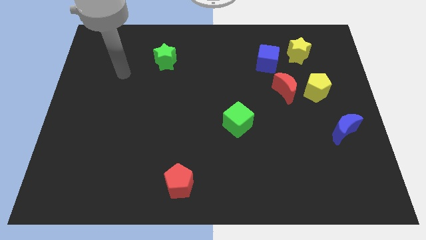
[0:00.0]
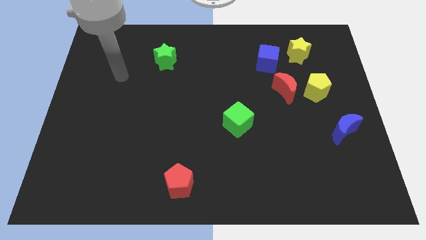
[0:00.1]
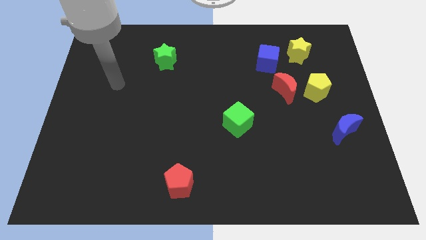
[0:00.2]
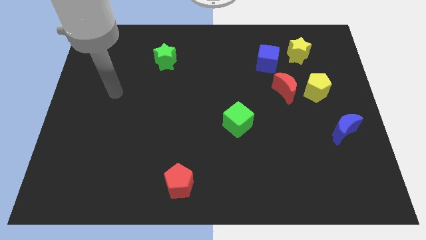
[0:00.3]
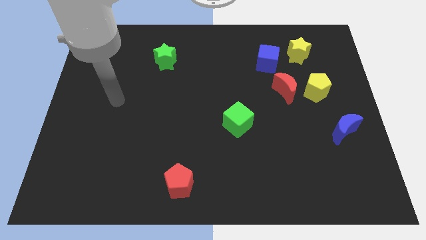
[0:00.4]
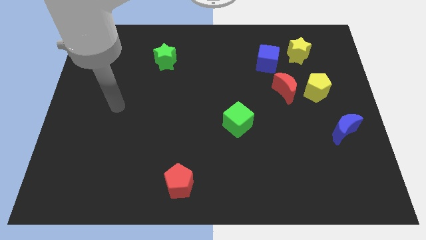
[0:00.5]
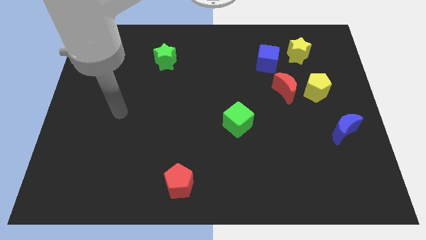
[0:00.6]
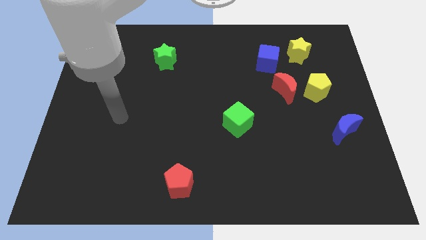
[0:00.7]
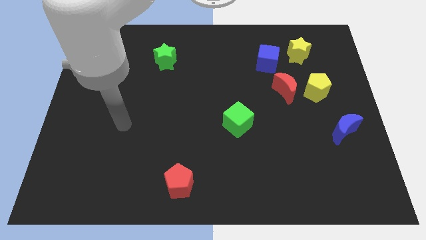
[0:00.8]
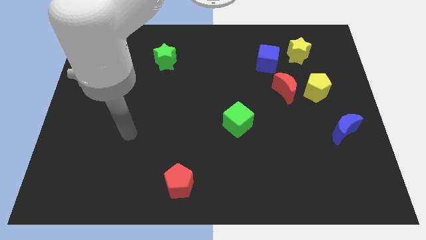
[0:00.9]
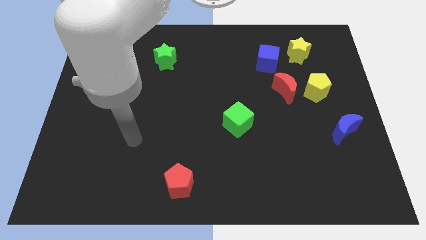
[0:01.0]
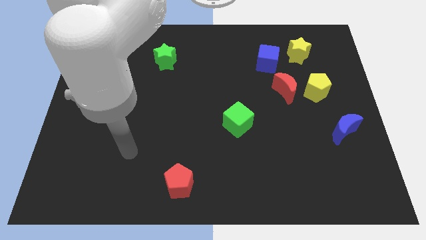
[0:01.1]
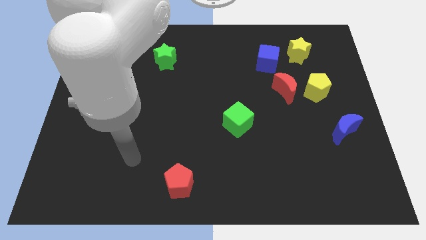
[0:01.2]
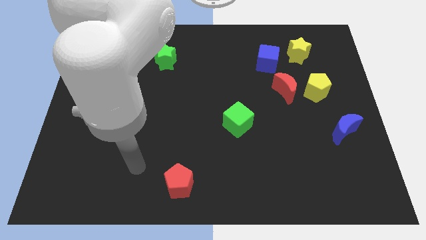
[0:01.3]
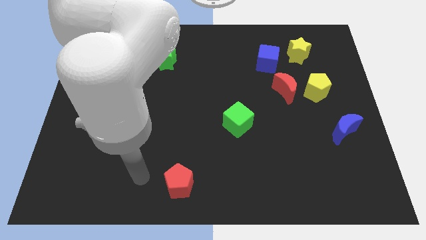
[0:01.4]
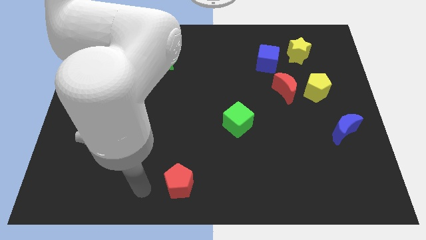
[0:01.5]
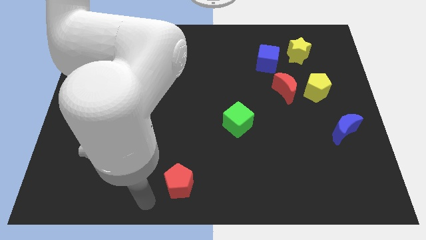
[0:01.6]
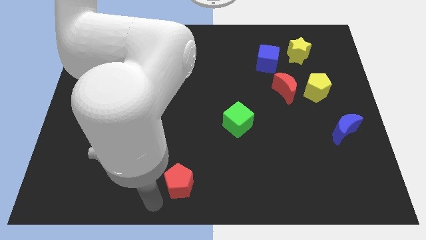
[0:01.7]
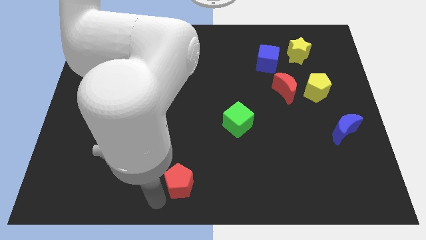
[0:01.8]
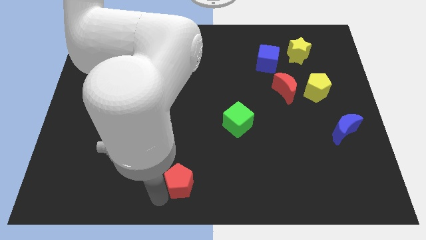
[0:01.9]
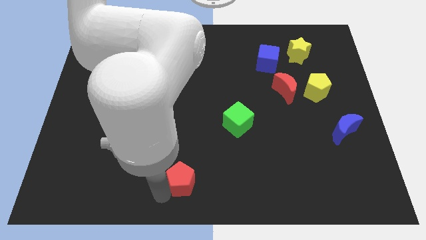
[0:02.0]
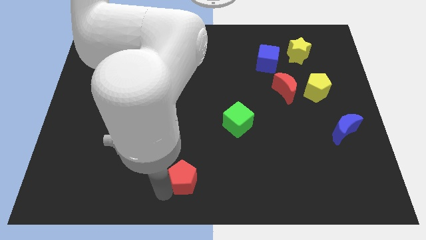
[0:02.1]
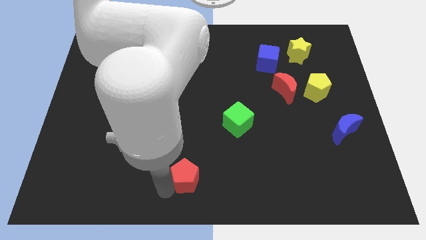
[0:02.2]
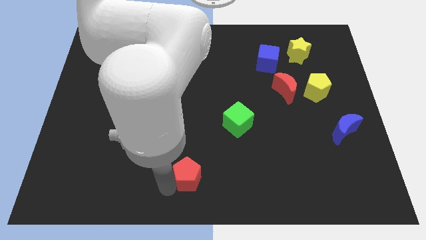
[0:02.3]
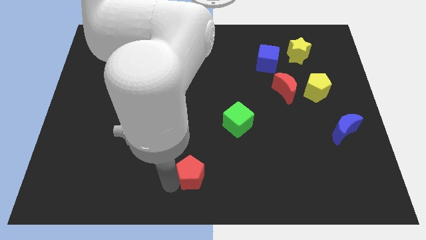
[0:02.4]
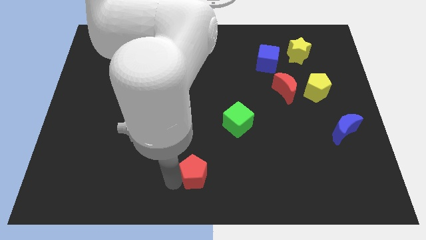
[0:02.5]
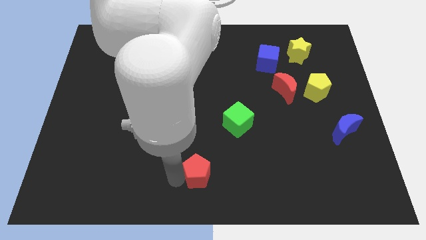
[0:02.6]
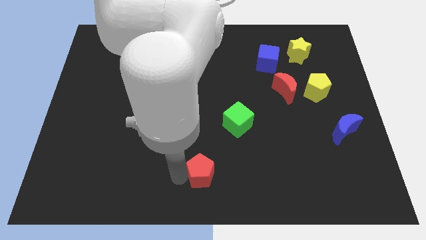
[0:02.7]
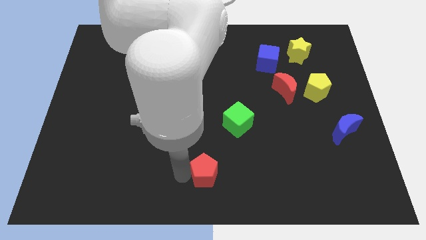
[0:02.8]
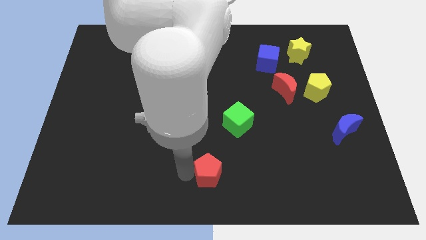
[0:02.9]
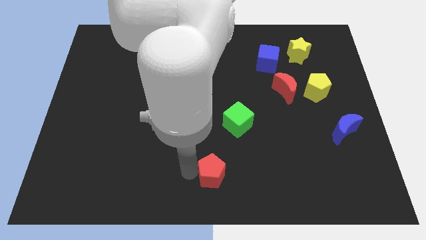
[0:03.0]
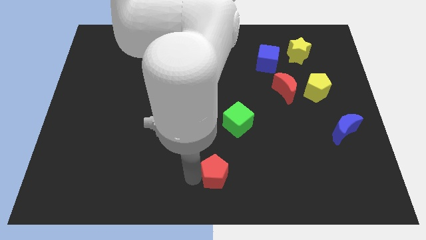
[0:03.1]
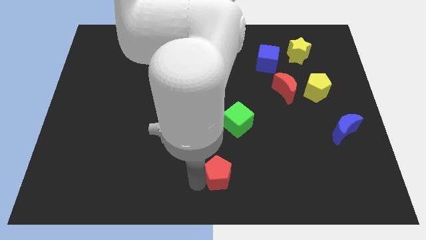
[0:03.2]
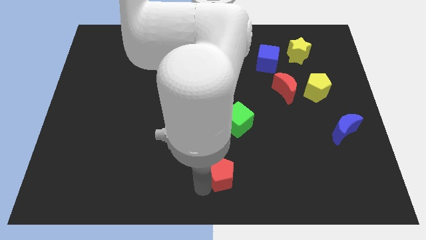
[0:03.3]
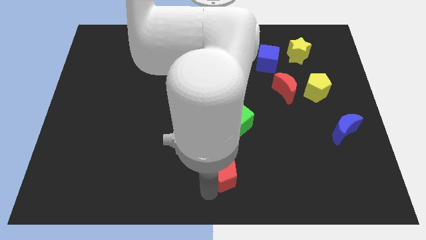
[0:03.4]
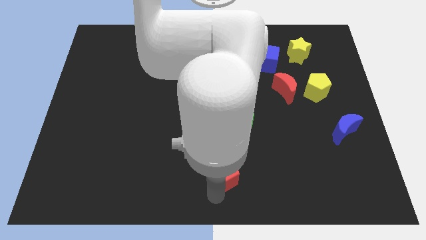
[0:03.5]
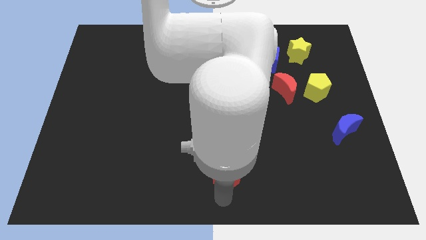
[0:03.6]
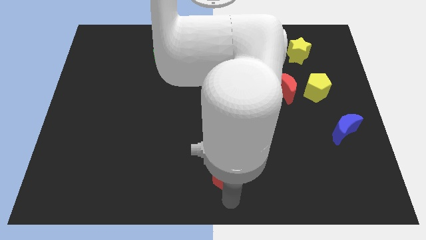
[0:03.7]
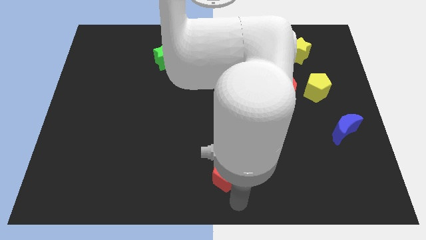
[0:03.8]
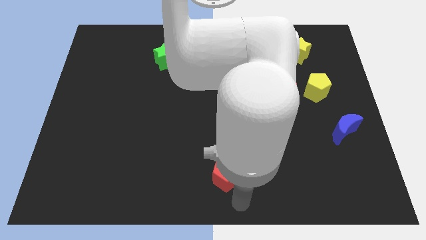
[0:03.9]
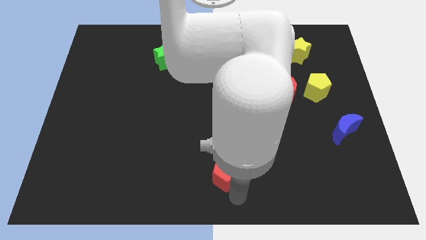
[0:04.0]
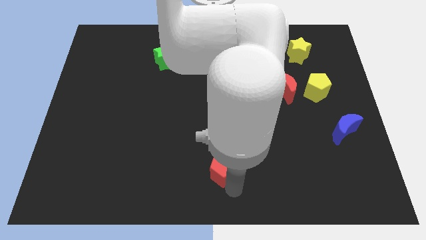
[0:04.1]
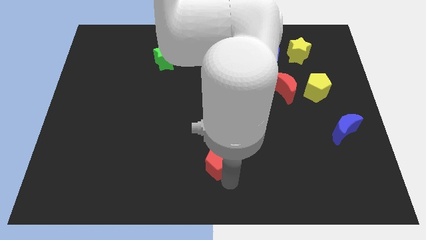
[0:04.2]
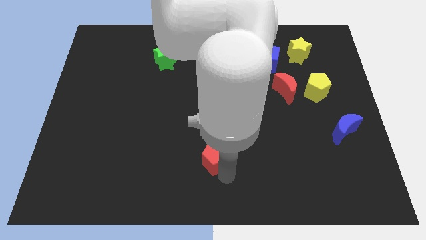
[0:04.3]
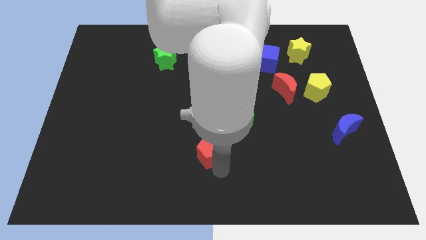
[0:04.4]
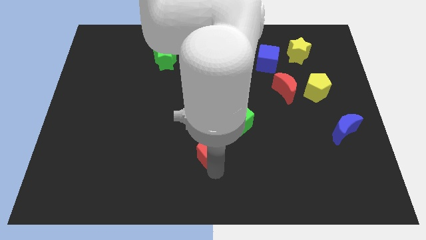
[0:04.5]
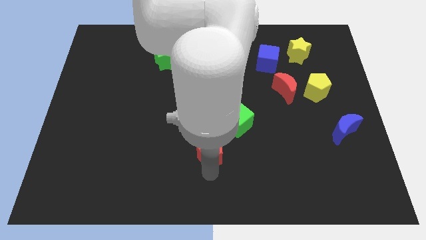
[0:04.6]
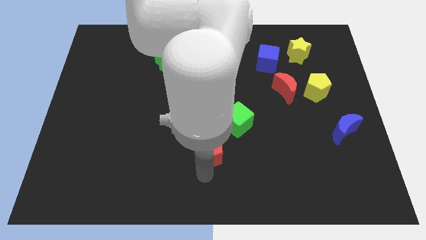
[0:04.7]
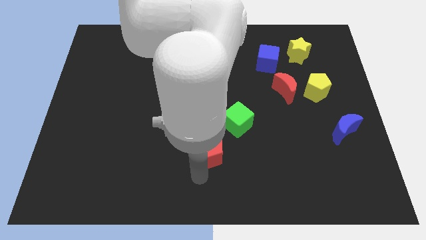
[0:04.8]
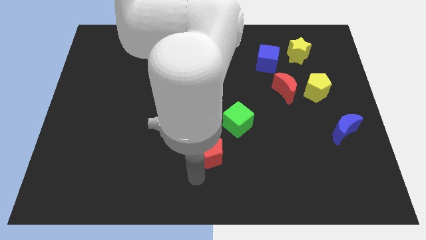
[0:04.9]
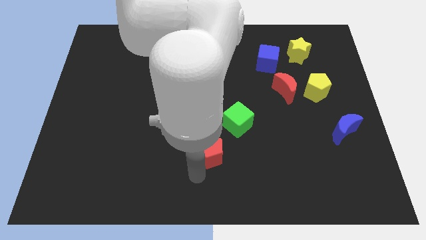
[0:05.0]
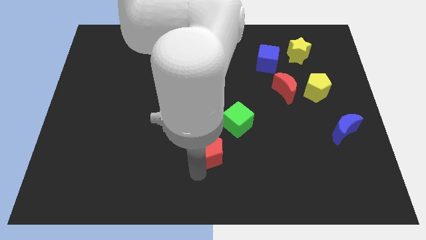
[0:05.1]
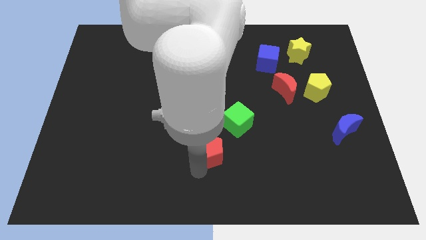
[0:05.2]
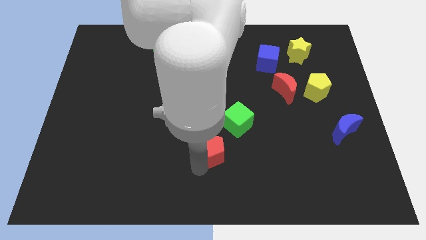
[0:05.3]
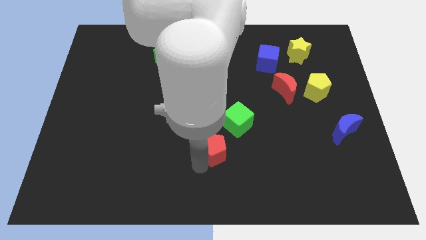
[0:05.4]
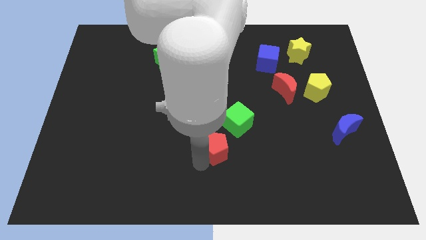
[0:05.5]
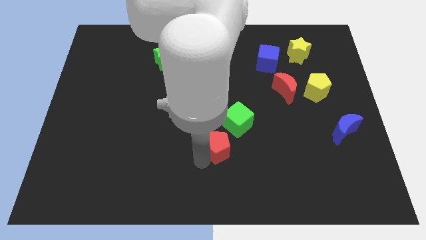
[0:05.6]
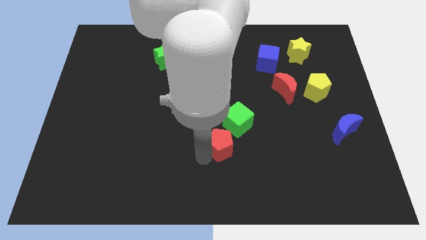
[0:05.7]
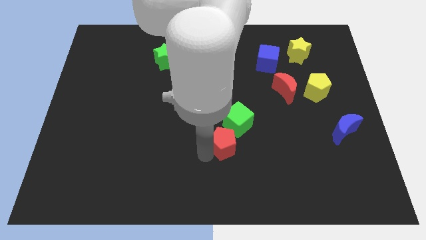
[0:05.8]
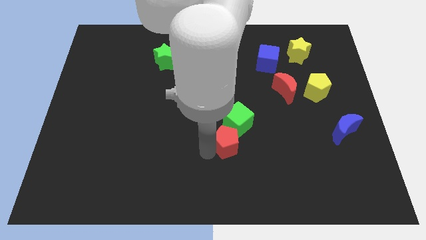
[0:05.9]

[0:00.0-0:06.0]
put the red pentagon close to the green cube
